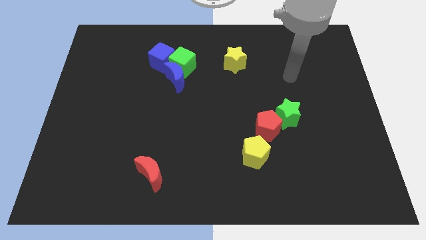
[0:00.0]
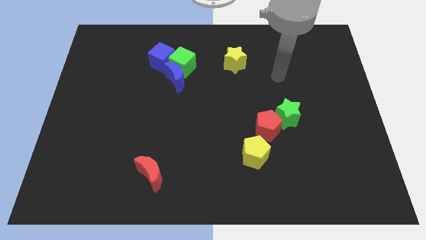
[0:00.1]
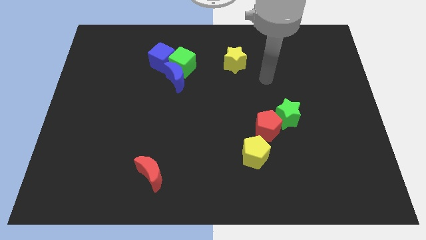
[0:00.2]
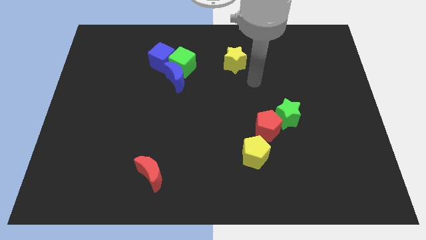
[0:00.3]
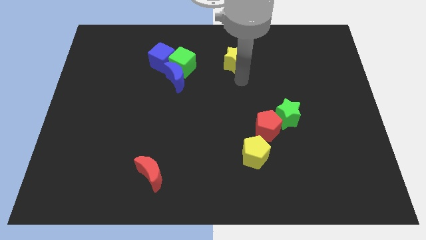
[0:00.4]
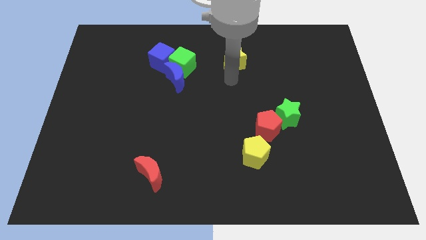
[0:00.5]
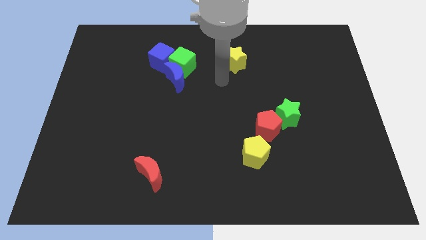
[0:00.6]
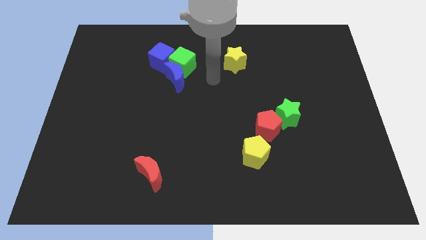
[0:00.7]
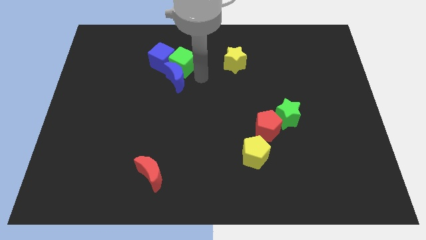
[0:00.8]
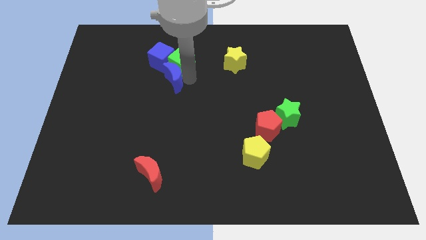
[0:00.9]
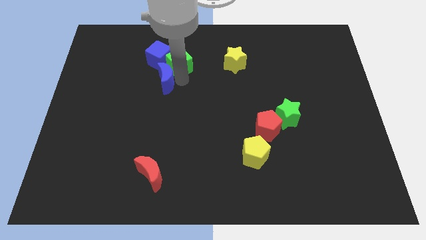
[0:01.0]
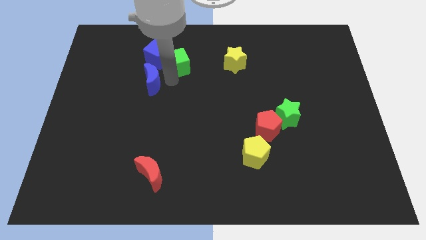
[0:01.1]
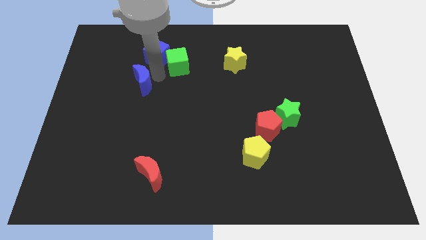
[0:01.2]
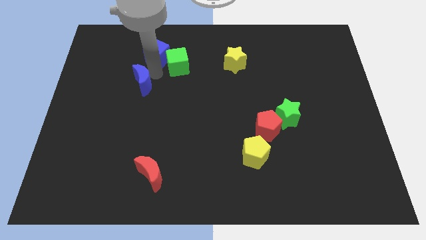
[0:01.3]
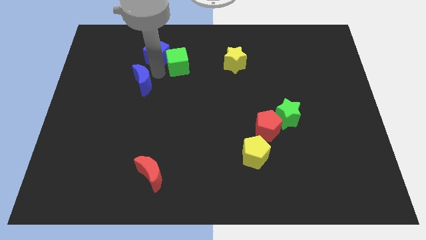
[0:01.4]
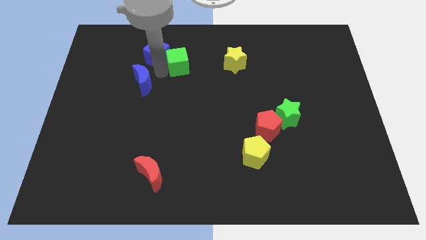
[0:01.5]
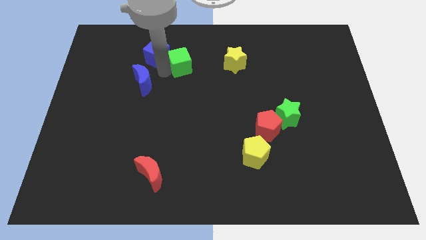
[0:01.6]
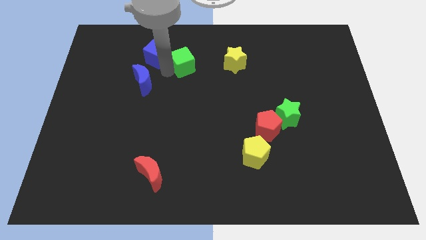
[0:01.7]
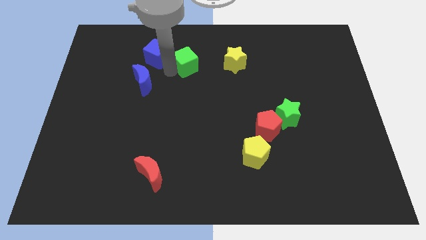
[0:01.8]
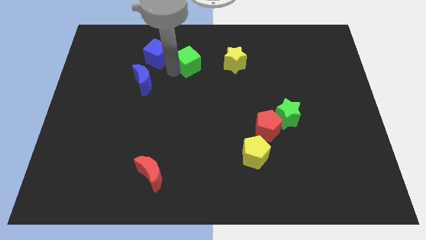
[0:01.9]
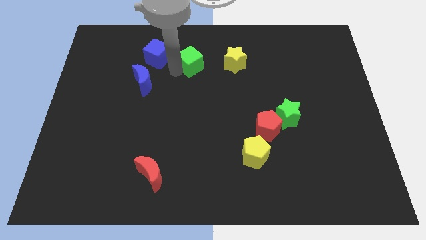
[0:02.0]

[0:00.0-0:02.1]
pull the green cube apart from the blue moon and blue cube

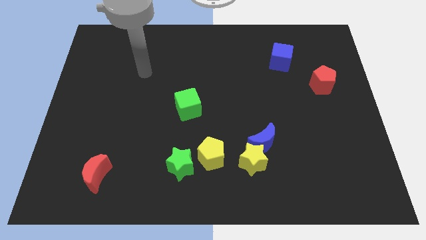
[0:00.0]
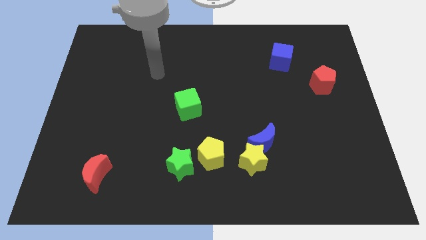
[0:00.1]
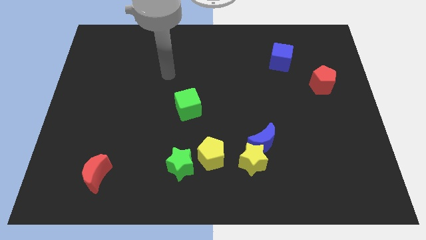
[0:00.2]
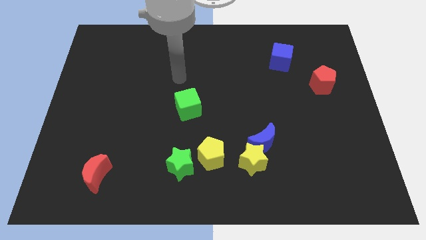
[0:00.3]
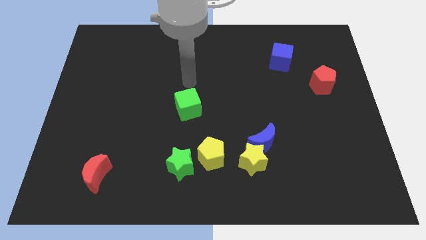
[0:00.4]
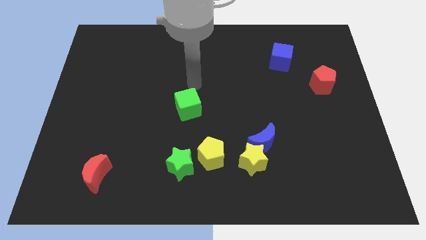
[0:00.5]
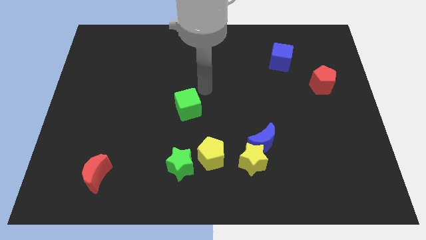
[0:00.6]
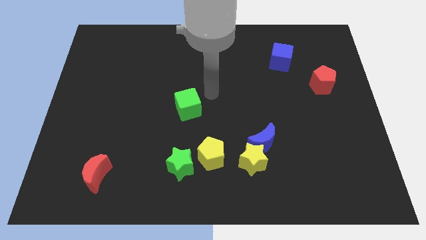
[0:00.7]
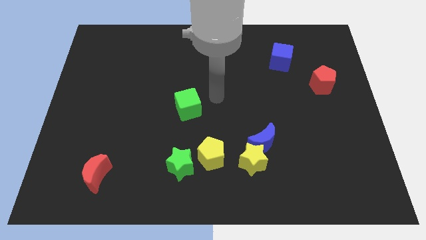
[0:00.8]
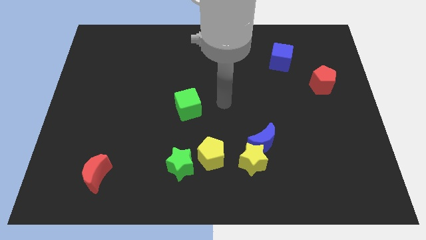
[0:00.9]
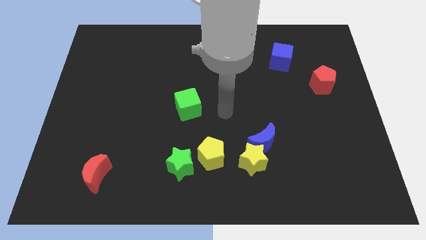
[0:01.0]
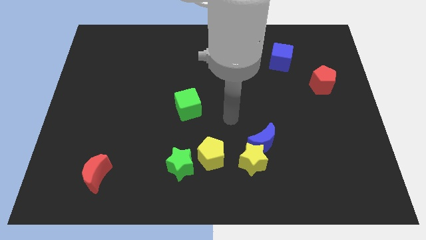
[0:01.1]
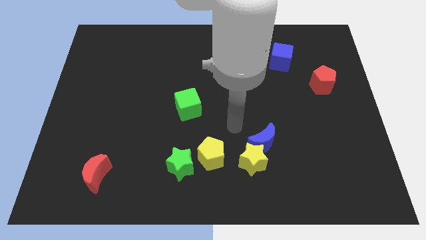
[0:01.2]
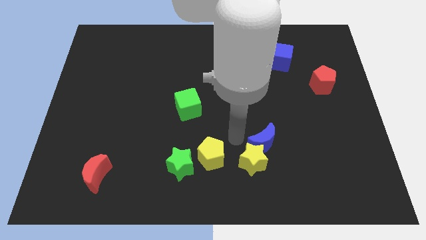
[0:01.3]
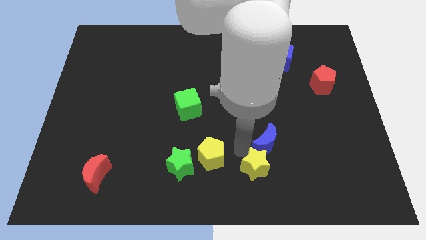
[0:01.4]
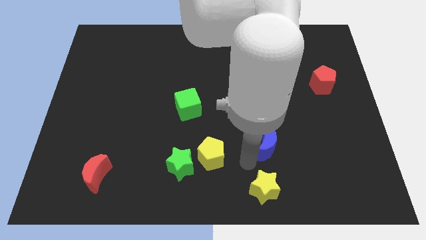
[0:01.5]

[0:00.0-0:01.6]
pull the blue moon apart from the yellow star

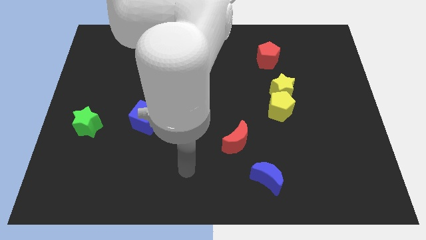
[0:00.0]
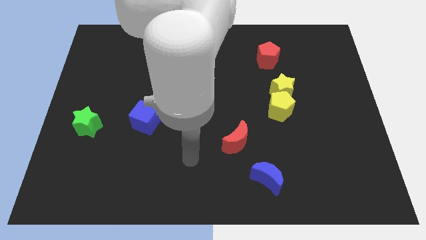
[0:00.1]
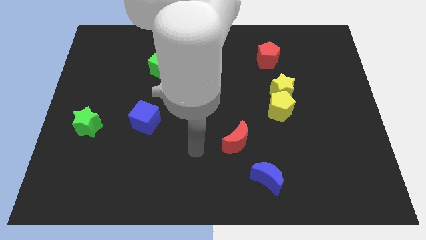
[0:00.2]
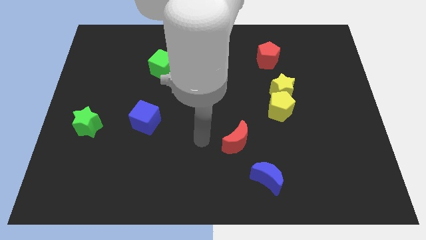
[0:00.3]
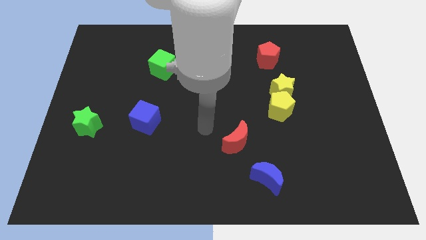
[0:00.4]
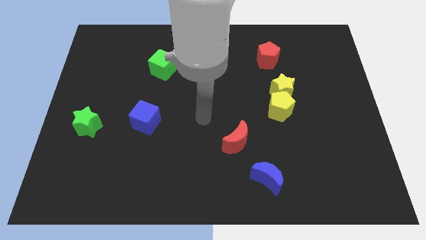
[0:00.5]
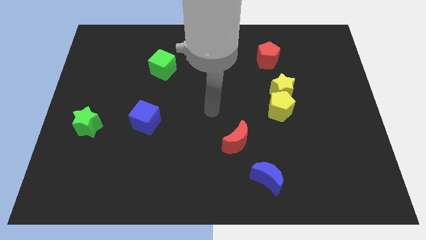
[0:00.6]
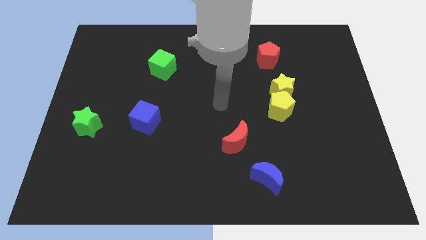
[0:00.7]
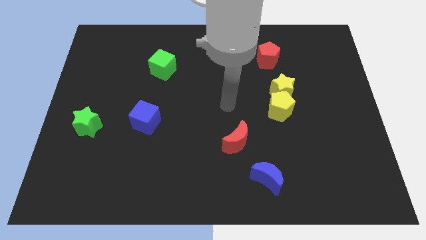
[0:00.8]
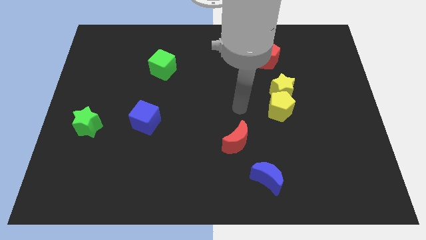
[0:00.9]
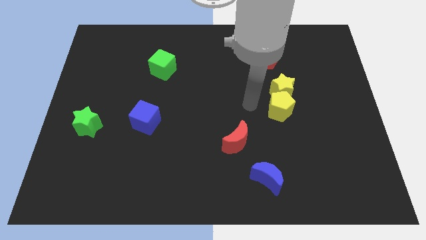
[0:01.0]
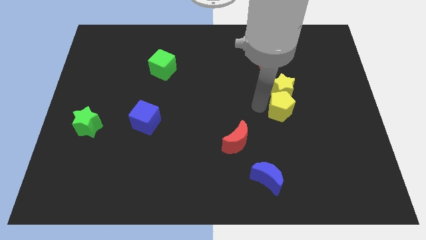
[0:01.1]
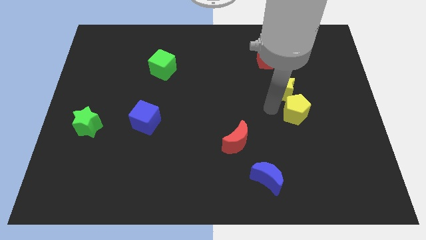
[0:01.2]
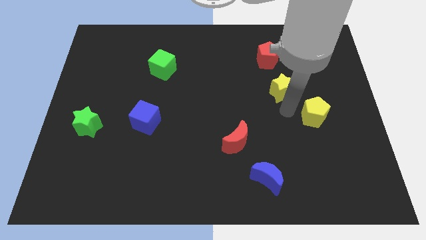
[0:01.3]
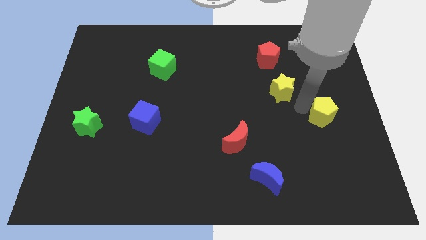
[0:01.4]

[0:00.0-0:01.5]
pull the yellow star apart from the yellow pentagon

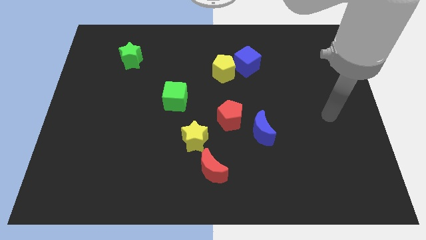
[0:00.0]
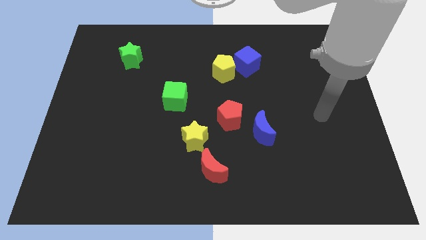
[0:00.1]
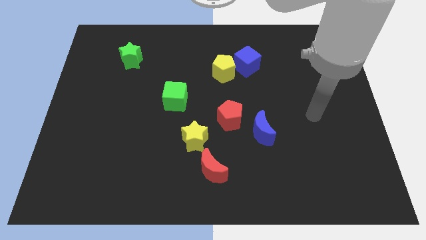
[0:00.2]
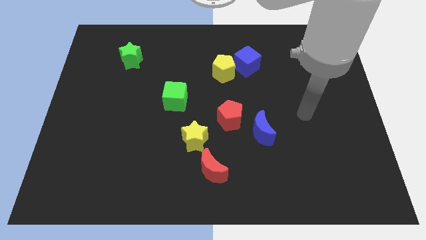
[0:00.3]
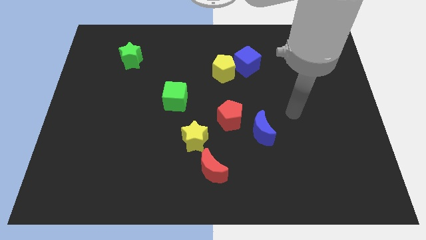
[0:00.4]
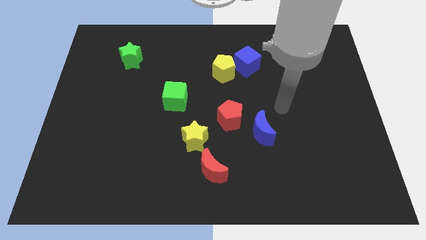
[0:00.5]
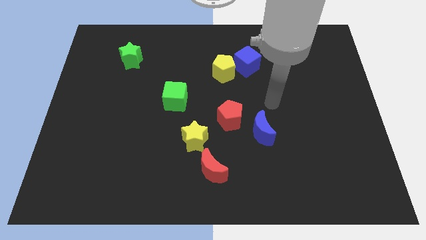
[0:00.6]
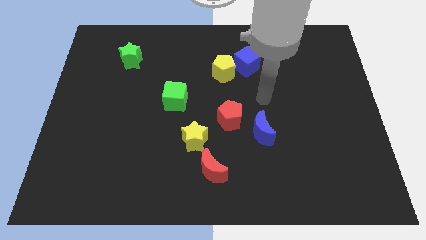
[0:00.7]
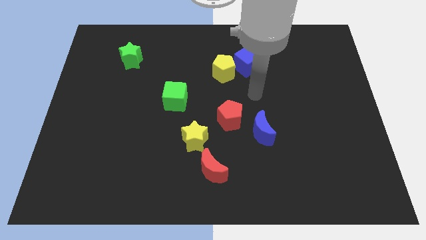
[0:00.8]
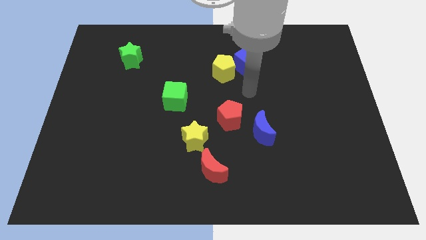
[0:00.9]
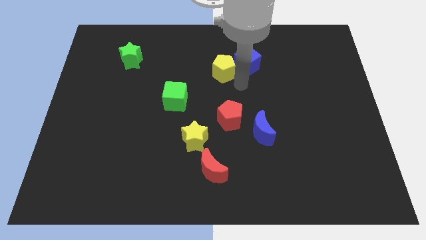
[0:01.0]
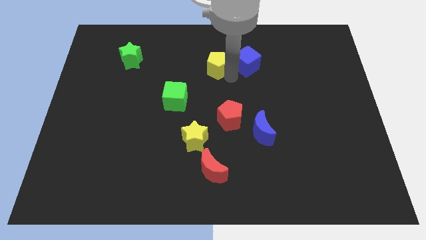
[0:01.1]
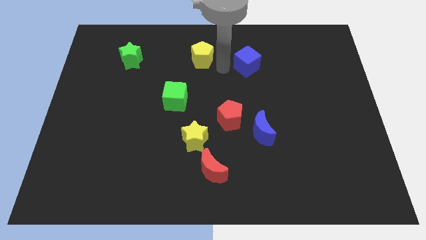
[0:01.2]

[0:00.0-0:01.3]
pull the blue cube apart from the yellow pentagon

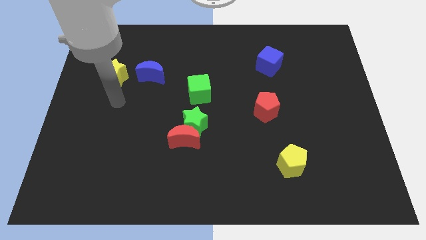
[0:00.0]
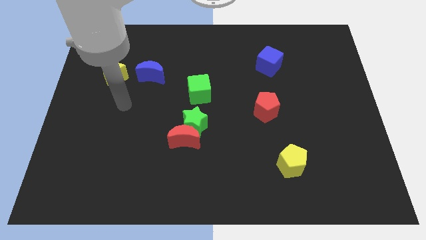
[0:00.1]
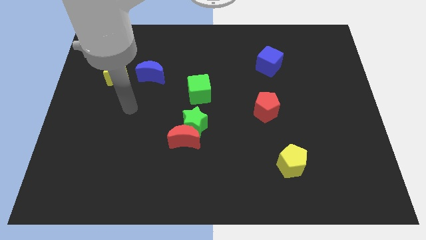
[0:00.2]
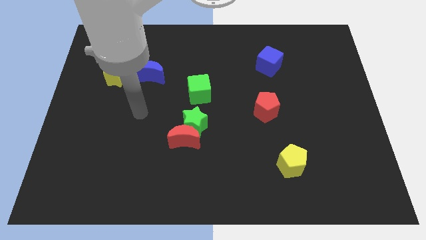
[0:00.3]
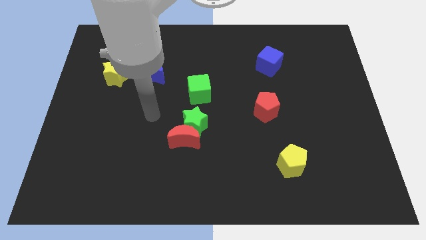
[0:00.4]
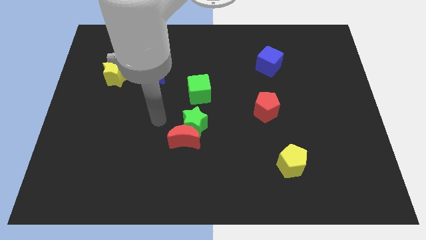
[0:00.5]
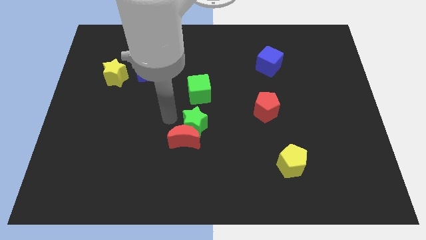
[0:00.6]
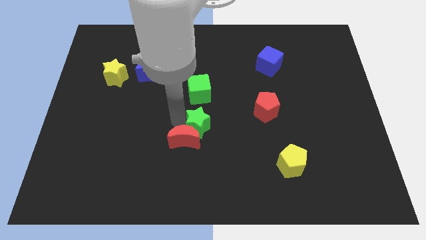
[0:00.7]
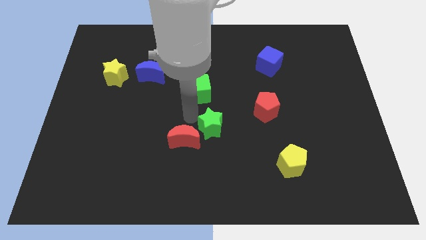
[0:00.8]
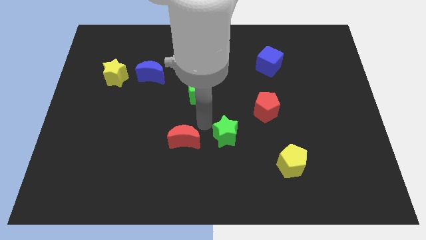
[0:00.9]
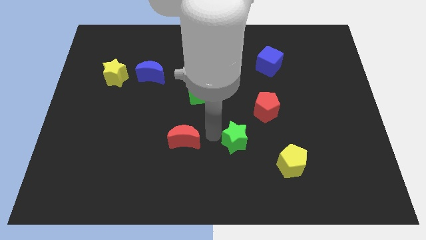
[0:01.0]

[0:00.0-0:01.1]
separate the red moon from the green star

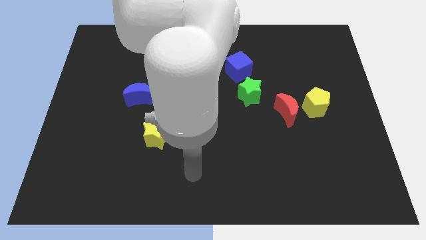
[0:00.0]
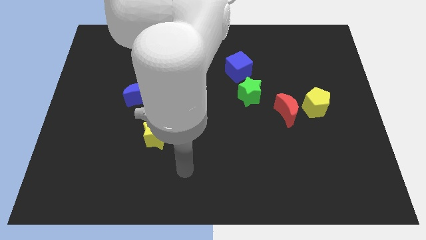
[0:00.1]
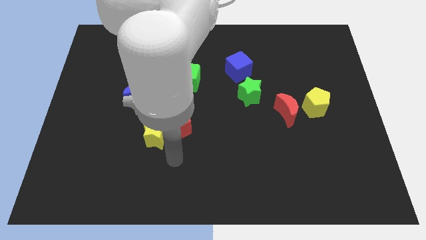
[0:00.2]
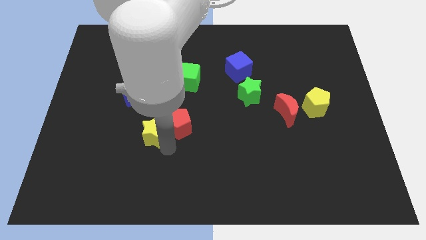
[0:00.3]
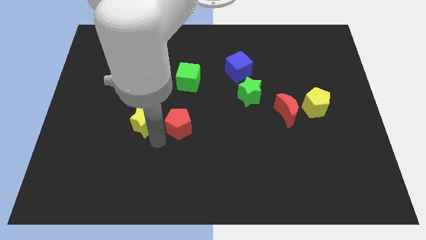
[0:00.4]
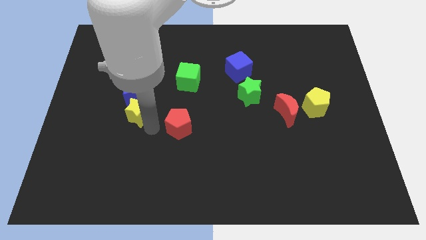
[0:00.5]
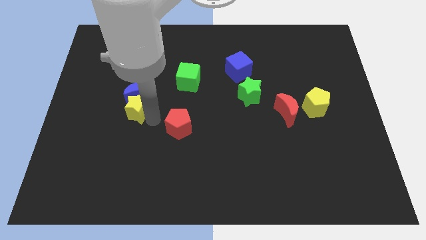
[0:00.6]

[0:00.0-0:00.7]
pull the red pentagon apart from the yellow star

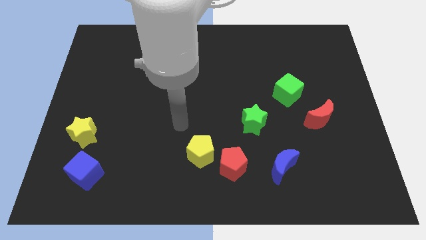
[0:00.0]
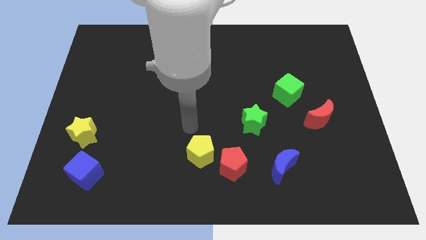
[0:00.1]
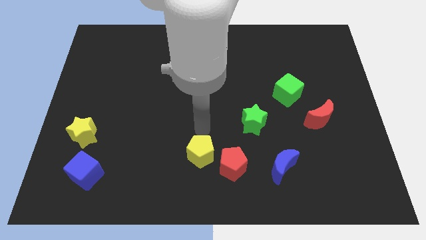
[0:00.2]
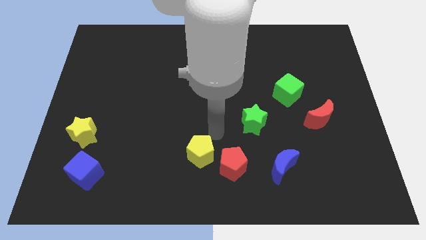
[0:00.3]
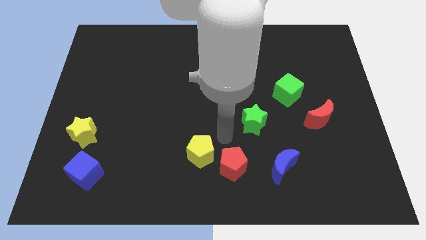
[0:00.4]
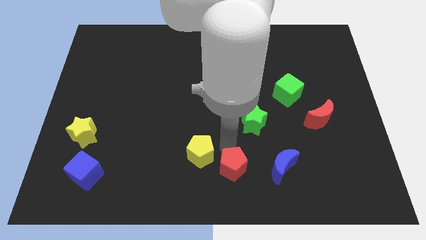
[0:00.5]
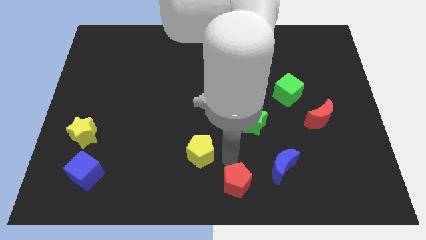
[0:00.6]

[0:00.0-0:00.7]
separate the yellow pentagon from the red pentagon

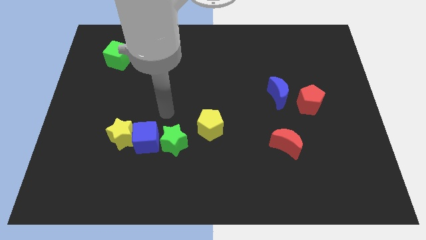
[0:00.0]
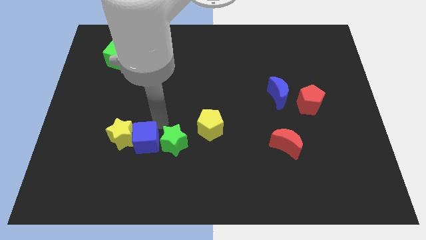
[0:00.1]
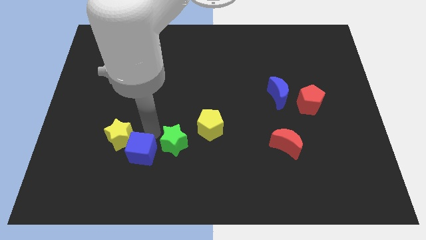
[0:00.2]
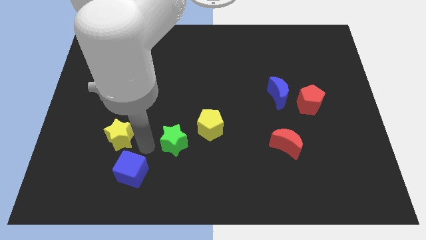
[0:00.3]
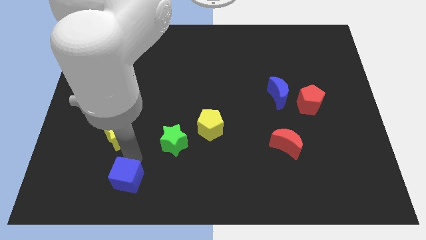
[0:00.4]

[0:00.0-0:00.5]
pull the yellow star apart from the blue cube

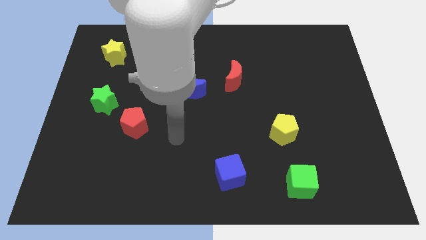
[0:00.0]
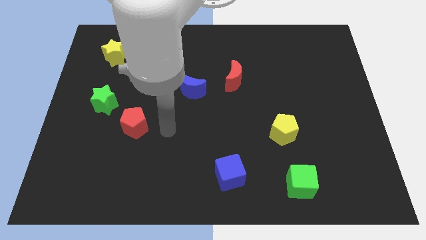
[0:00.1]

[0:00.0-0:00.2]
separate the red pentagon from the green star
